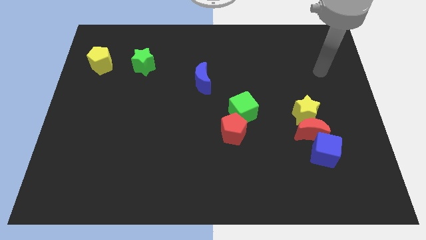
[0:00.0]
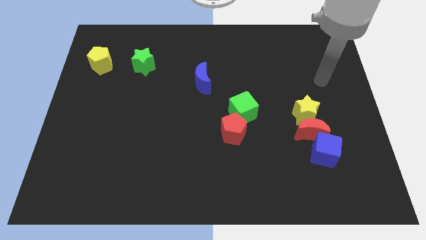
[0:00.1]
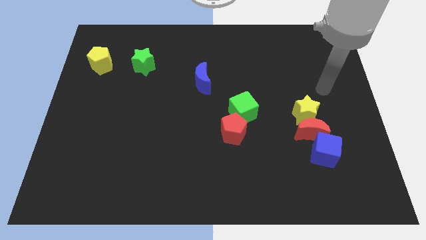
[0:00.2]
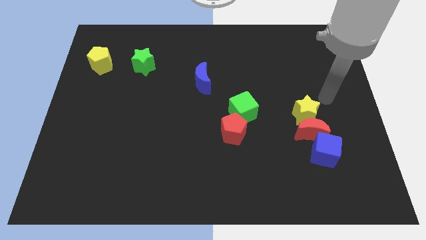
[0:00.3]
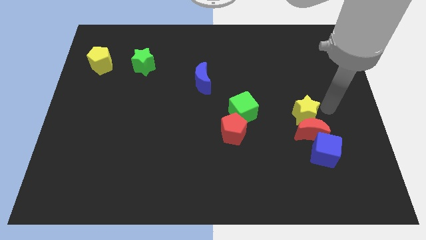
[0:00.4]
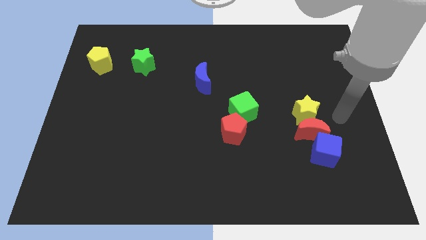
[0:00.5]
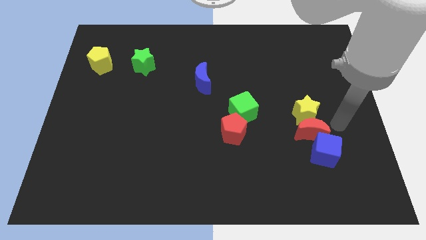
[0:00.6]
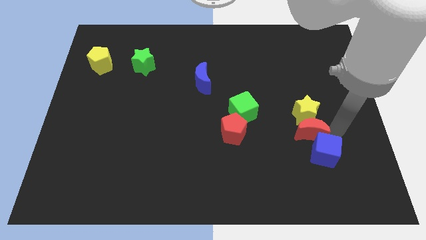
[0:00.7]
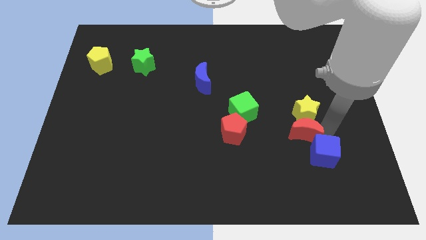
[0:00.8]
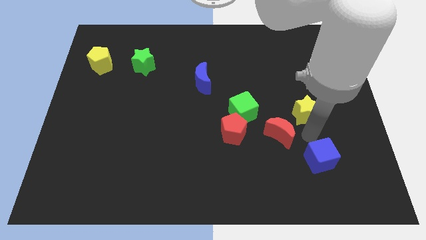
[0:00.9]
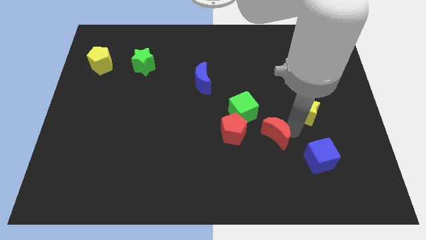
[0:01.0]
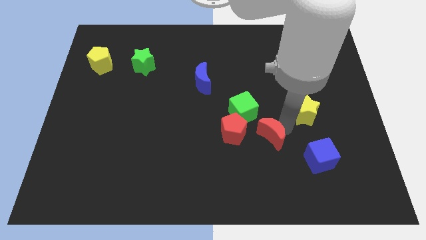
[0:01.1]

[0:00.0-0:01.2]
move the yellow star away from the red moon

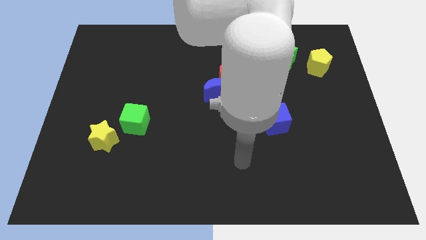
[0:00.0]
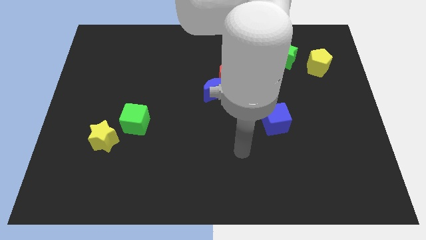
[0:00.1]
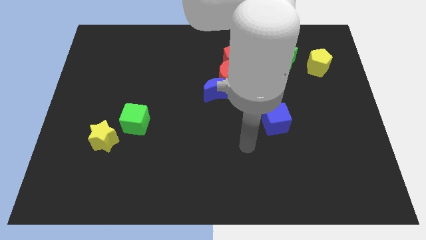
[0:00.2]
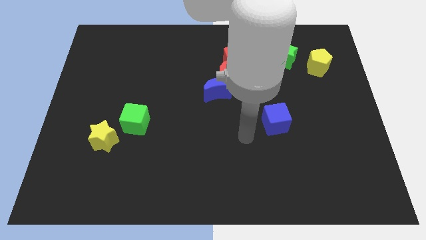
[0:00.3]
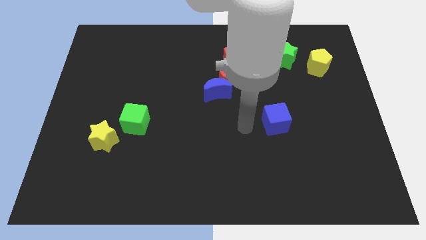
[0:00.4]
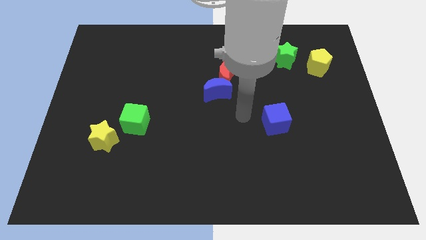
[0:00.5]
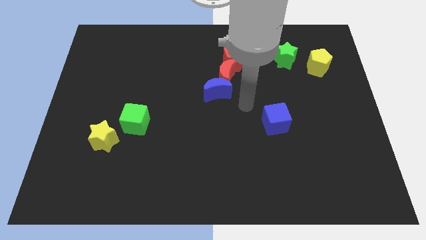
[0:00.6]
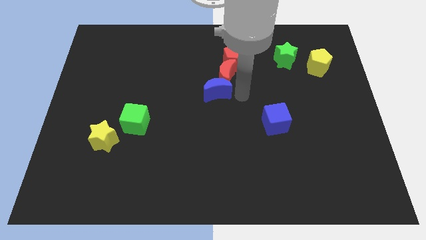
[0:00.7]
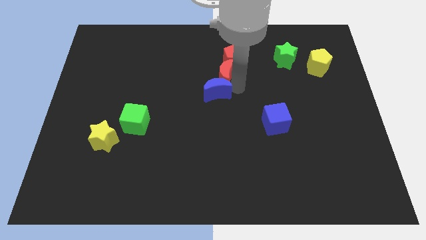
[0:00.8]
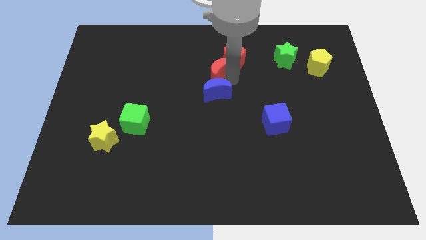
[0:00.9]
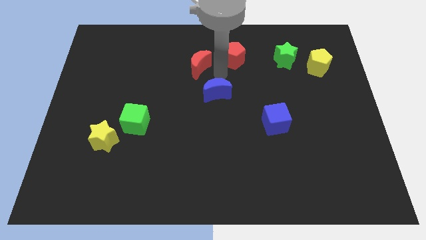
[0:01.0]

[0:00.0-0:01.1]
separate the blue moon from the red moon

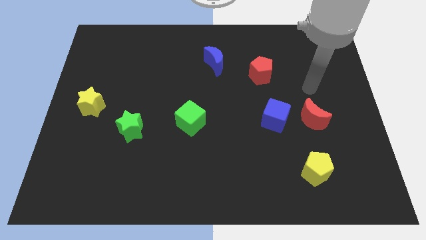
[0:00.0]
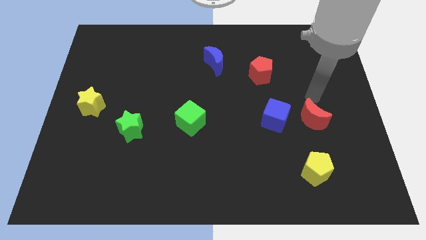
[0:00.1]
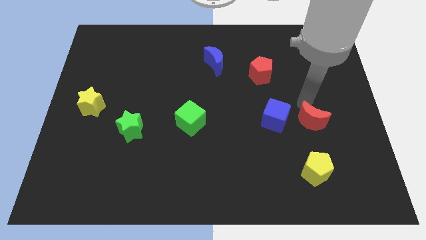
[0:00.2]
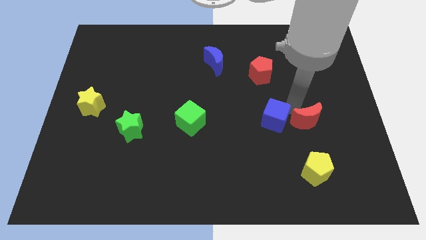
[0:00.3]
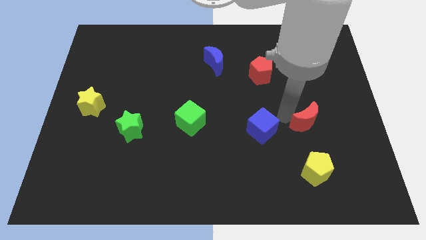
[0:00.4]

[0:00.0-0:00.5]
pull the red moon apart from the blue cube

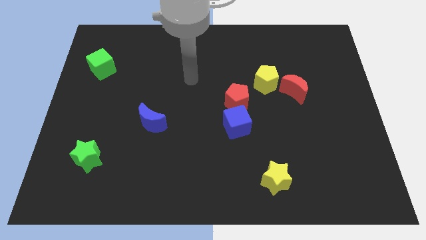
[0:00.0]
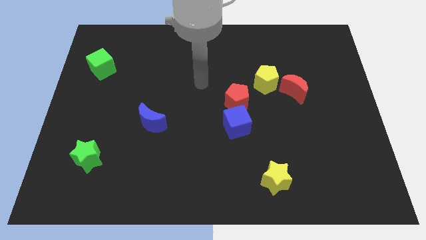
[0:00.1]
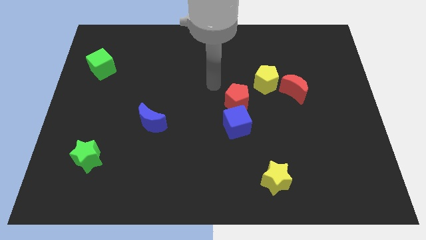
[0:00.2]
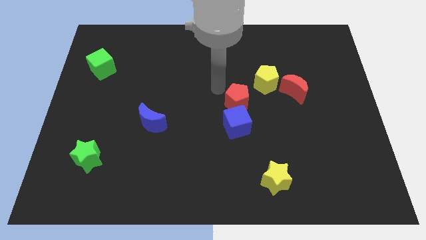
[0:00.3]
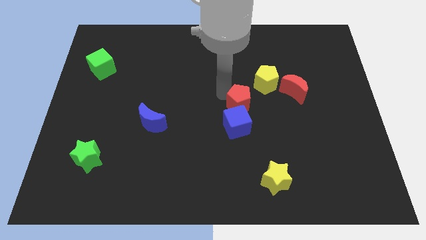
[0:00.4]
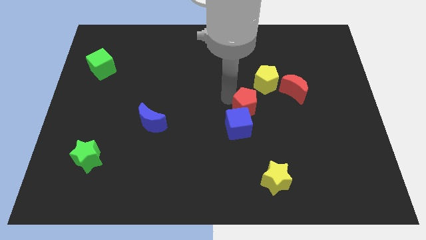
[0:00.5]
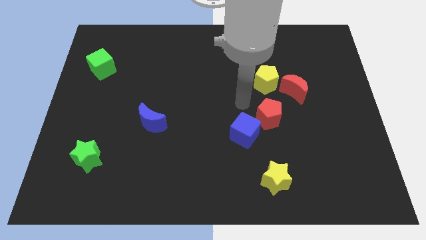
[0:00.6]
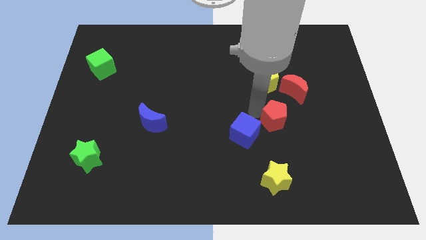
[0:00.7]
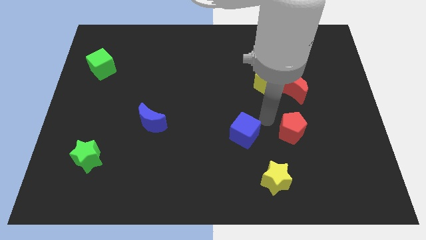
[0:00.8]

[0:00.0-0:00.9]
separate the blue cube from the red pentagon

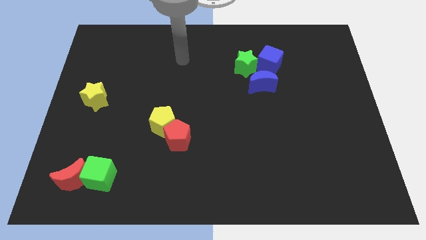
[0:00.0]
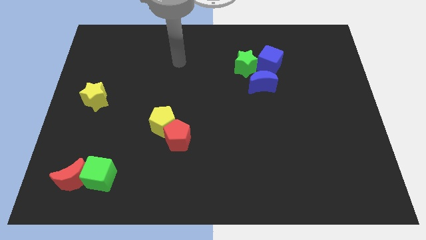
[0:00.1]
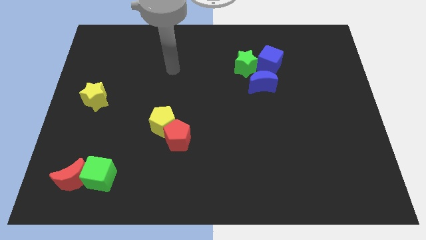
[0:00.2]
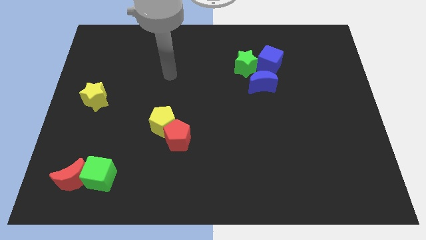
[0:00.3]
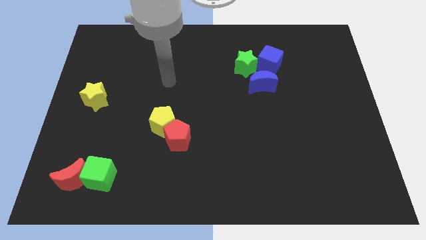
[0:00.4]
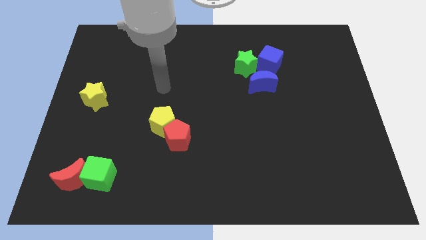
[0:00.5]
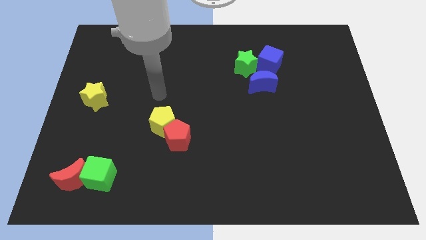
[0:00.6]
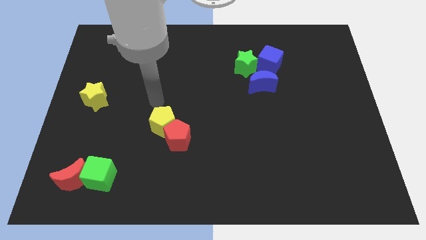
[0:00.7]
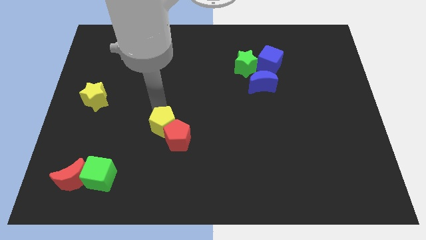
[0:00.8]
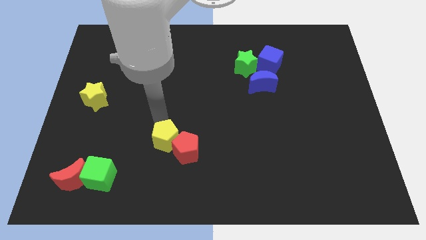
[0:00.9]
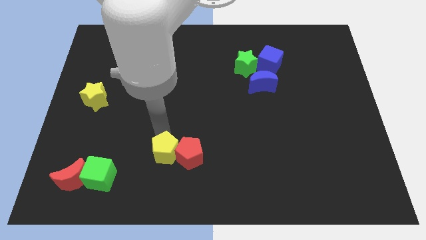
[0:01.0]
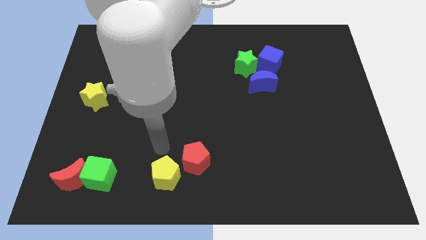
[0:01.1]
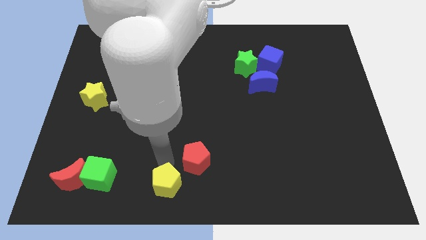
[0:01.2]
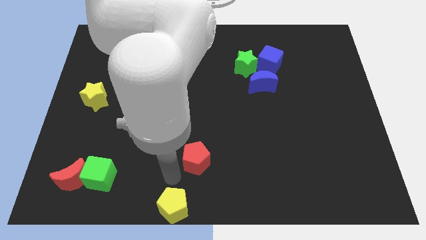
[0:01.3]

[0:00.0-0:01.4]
pull the red pentagon apart from the yellow pentagon

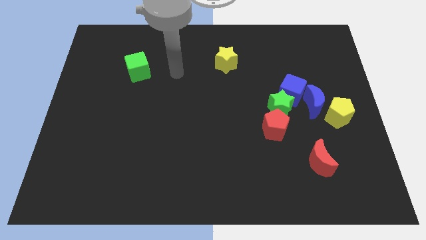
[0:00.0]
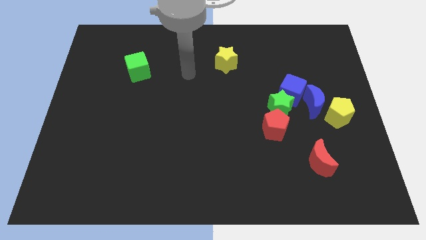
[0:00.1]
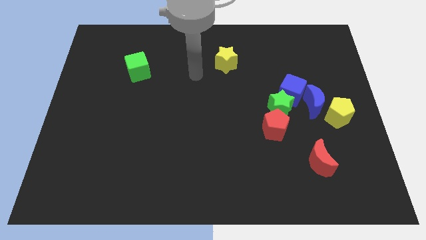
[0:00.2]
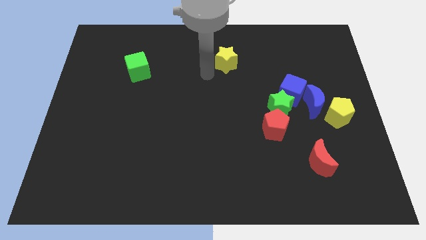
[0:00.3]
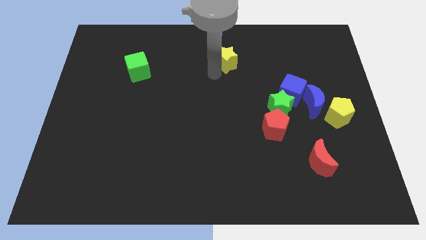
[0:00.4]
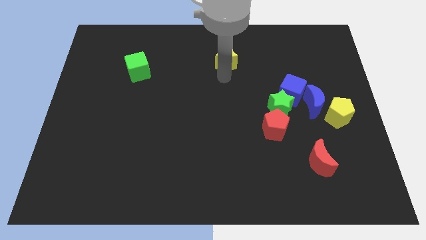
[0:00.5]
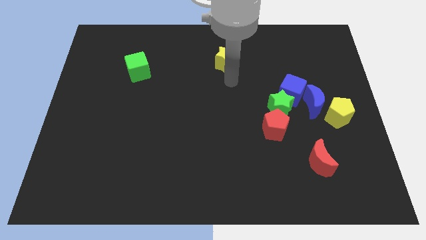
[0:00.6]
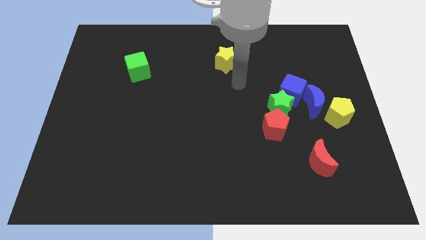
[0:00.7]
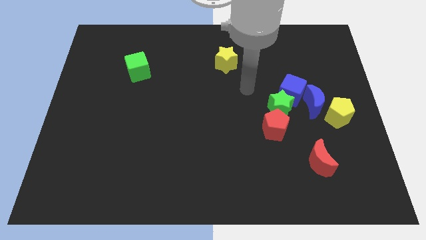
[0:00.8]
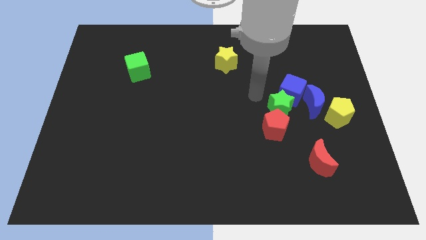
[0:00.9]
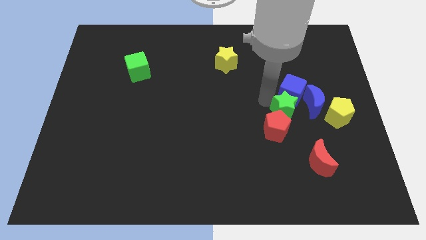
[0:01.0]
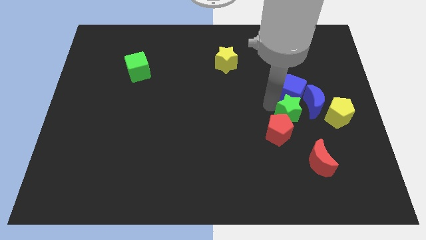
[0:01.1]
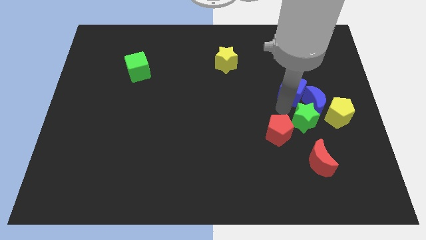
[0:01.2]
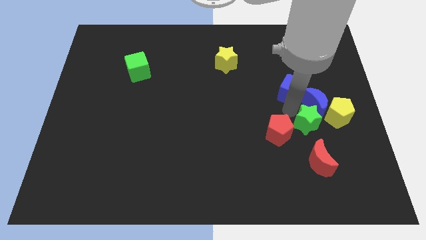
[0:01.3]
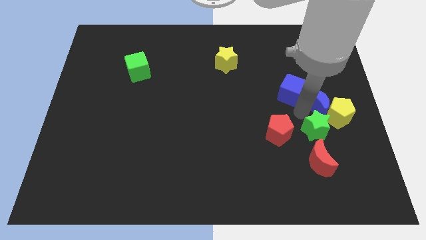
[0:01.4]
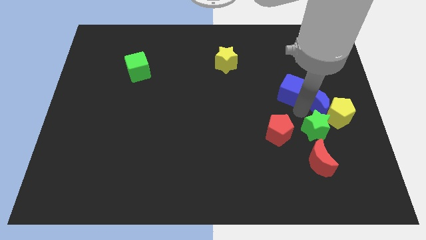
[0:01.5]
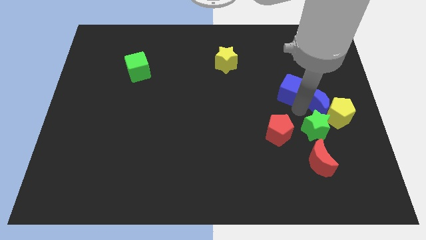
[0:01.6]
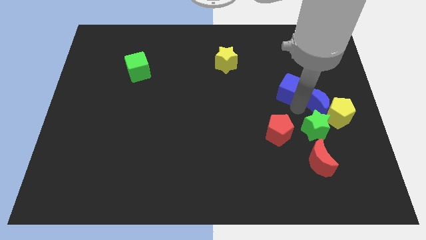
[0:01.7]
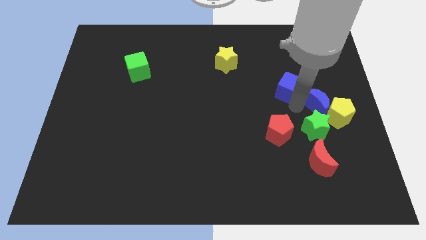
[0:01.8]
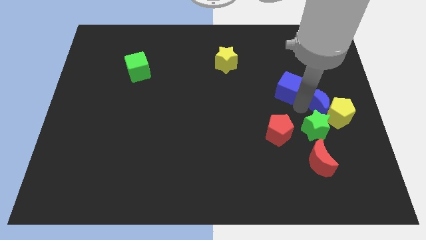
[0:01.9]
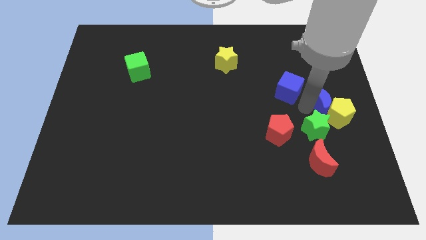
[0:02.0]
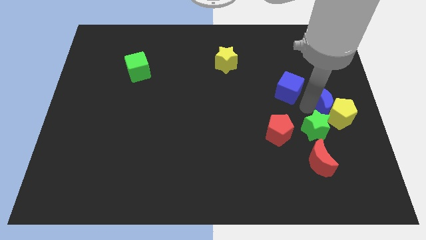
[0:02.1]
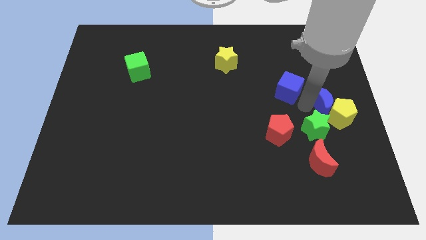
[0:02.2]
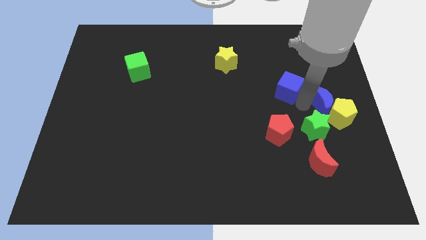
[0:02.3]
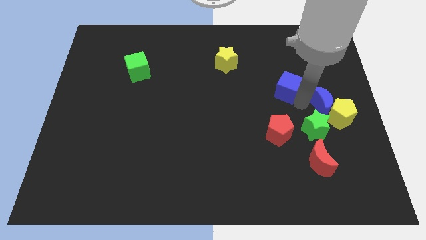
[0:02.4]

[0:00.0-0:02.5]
pull the blue cube apart from the green star and blue moon

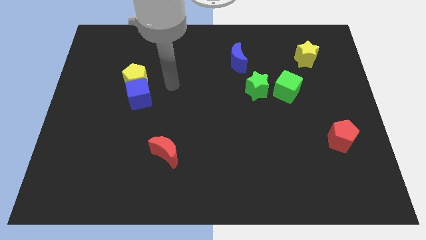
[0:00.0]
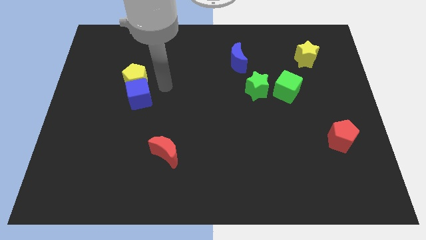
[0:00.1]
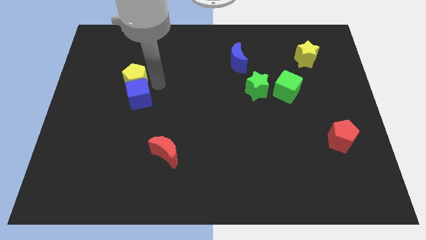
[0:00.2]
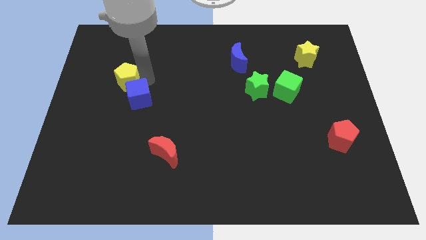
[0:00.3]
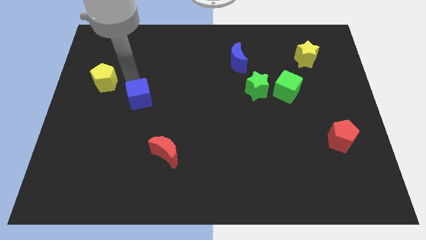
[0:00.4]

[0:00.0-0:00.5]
move the blue cube away from the yellow pentagon

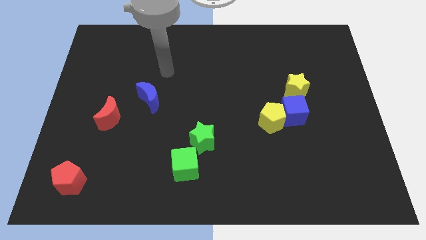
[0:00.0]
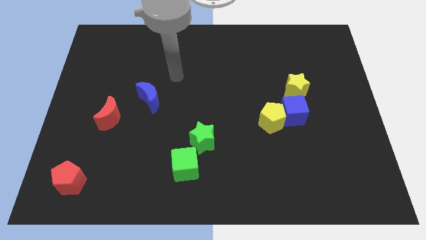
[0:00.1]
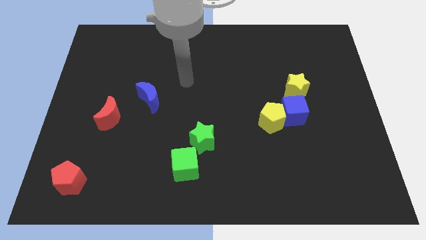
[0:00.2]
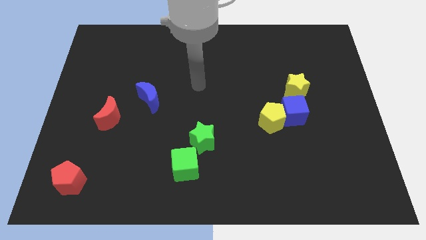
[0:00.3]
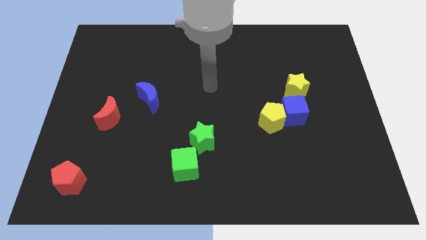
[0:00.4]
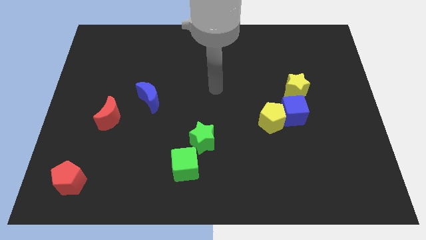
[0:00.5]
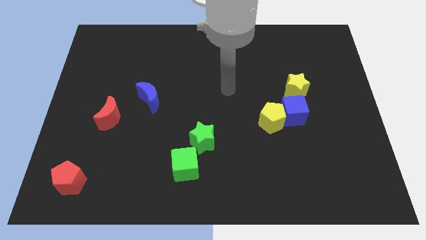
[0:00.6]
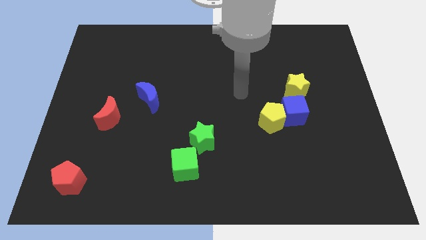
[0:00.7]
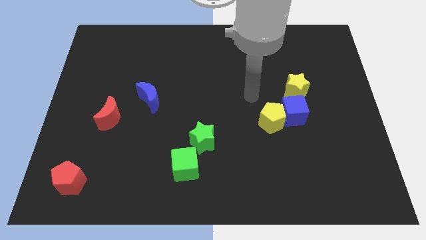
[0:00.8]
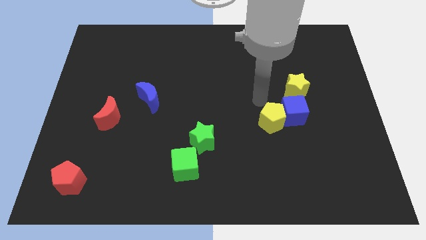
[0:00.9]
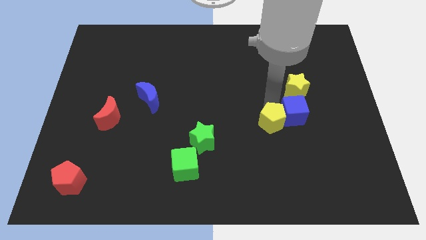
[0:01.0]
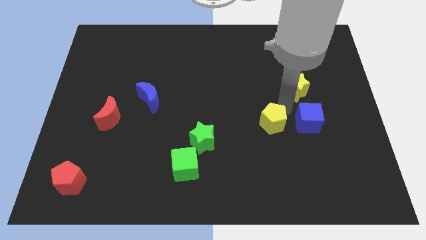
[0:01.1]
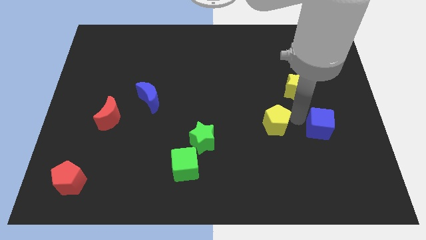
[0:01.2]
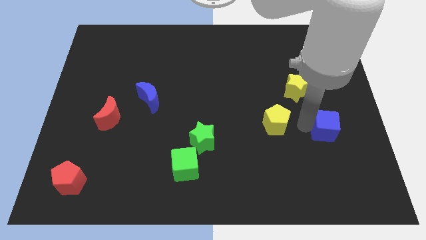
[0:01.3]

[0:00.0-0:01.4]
move the yellow pentagon away from the blue cube
